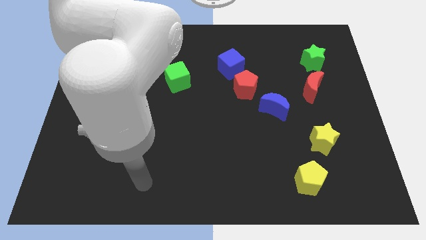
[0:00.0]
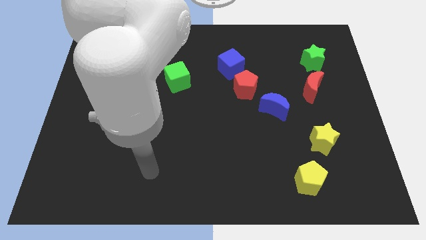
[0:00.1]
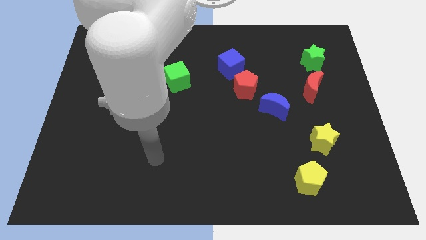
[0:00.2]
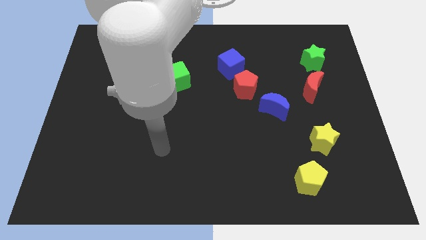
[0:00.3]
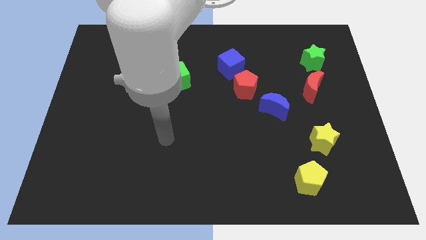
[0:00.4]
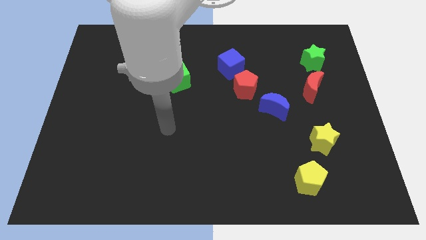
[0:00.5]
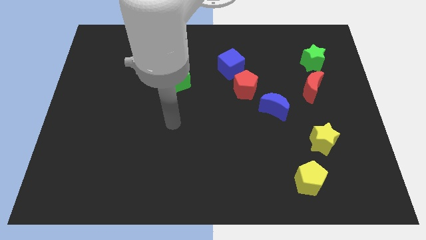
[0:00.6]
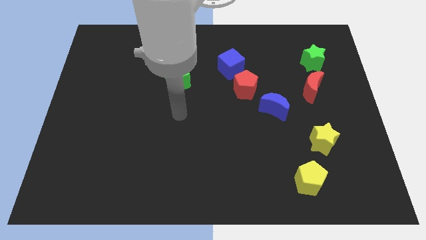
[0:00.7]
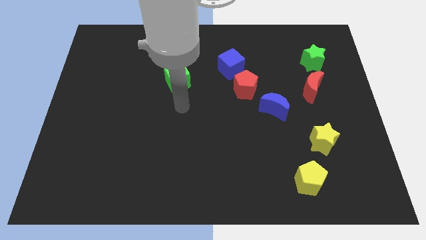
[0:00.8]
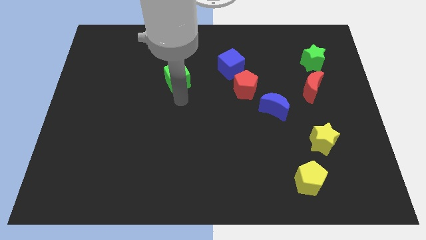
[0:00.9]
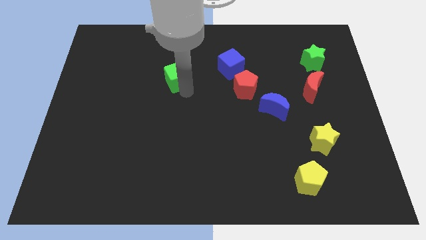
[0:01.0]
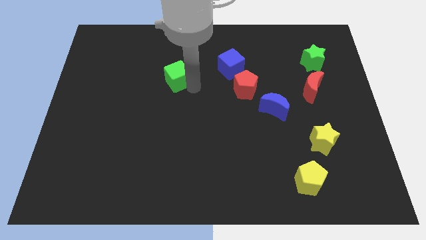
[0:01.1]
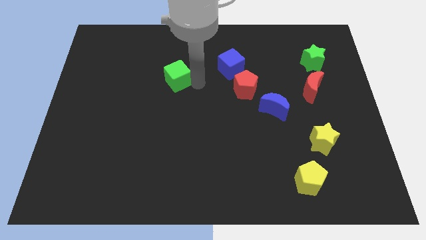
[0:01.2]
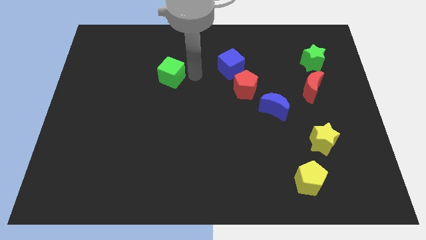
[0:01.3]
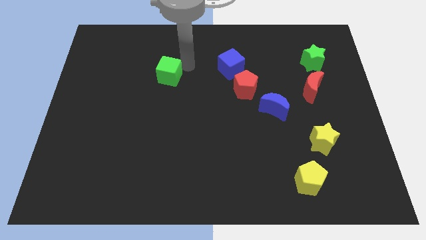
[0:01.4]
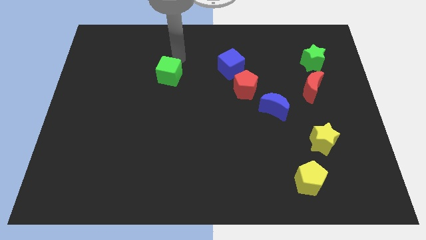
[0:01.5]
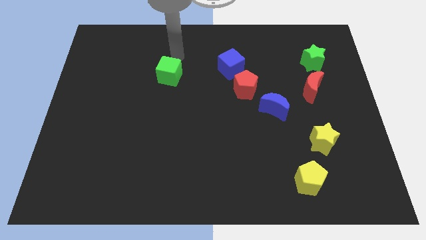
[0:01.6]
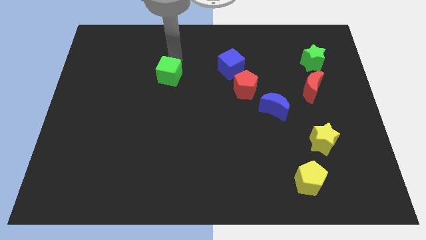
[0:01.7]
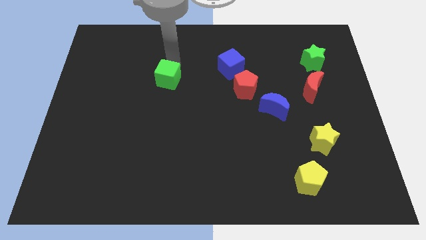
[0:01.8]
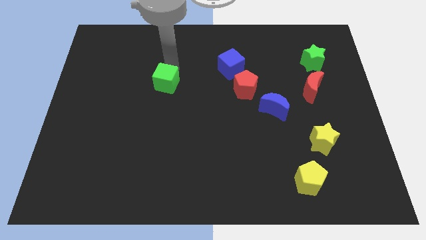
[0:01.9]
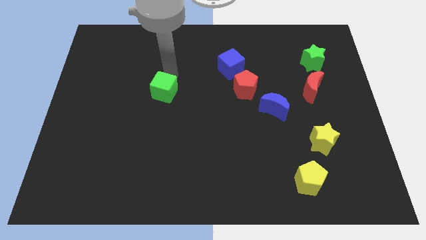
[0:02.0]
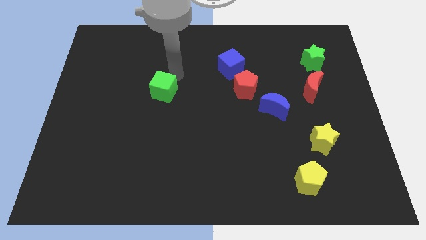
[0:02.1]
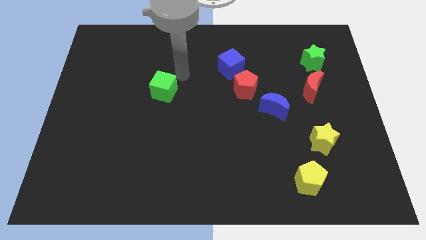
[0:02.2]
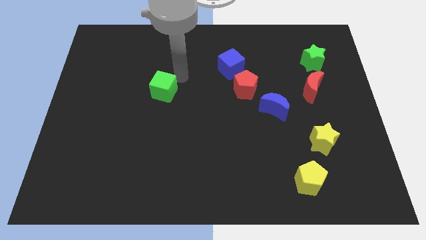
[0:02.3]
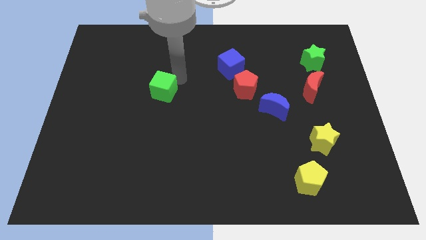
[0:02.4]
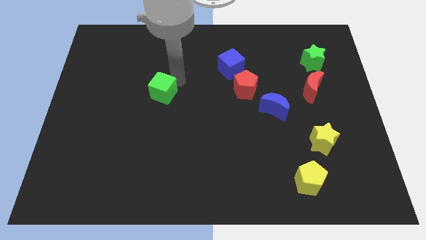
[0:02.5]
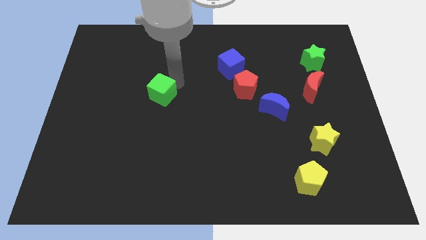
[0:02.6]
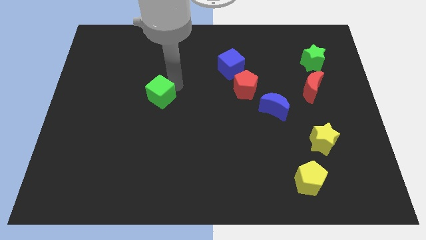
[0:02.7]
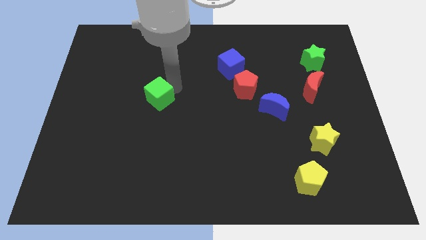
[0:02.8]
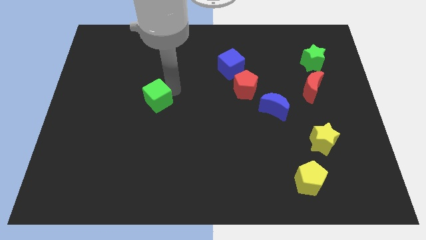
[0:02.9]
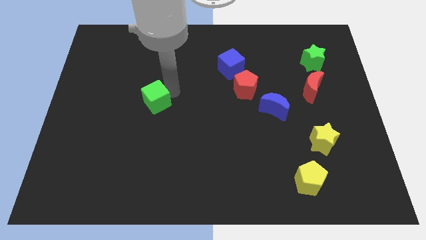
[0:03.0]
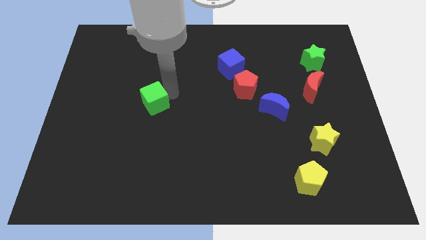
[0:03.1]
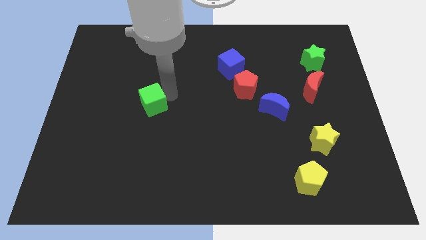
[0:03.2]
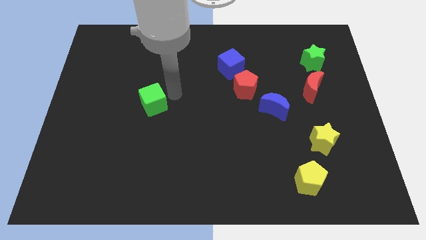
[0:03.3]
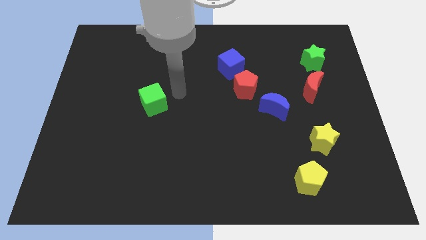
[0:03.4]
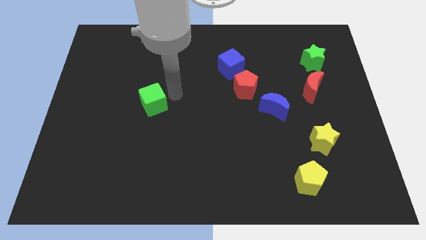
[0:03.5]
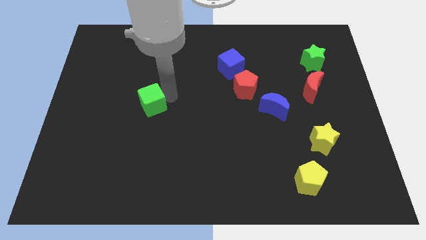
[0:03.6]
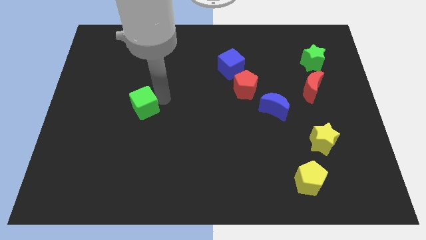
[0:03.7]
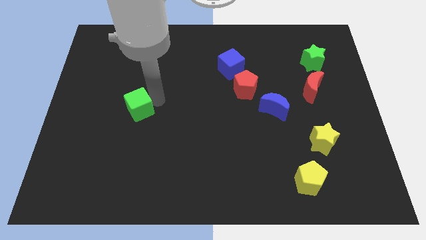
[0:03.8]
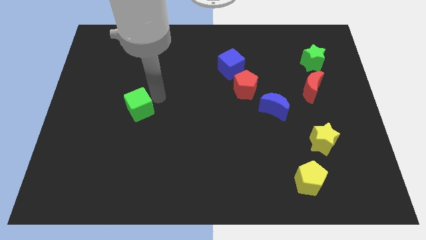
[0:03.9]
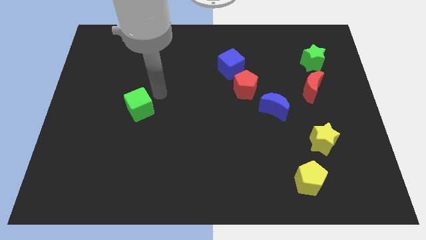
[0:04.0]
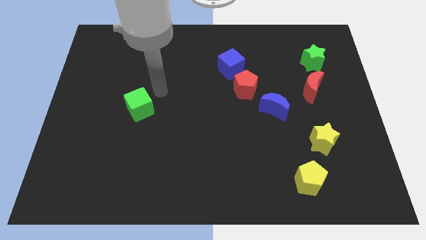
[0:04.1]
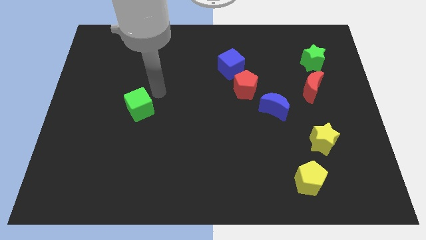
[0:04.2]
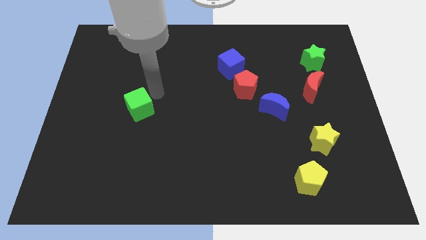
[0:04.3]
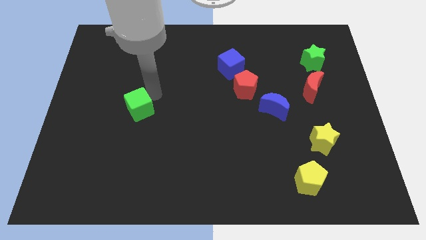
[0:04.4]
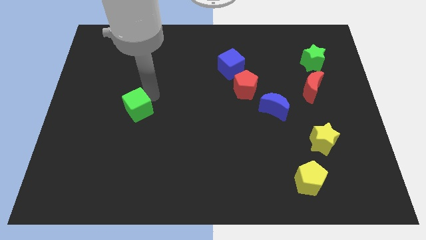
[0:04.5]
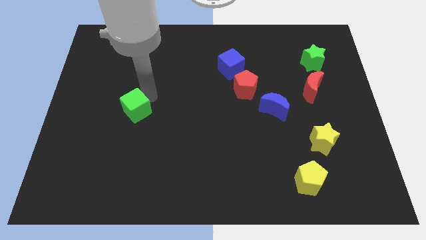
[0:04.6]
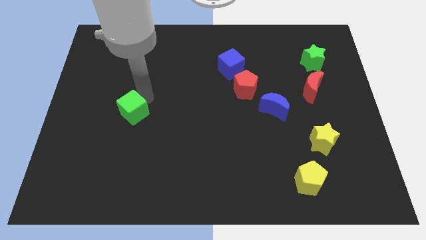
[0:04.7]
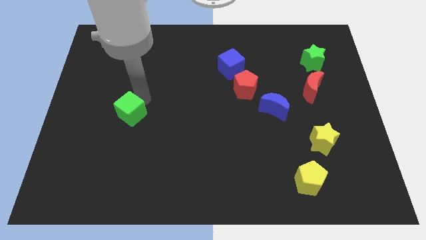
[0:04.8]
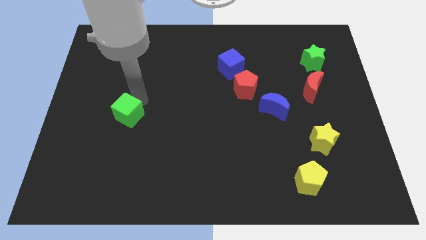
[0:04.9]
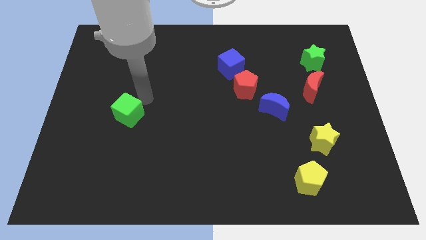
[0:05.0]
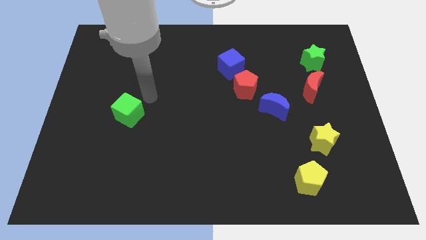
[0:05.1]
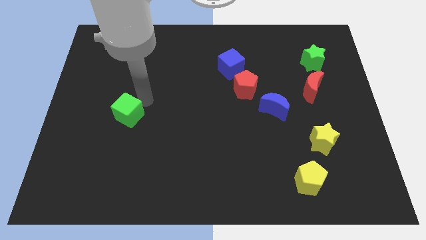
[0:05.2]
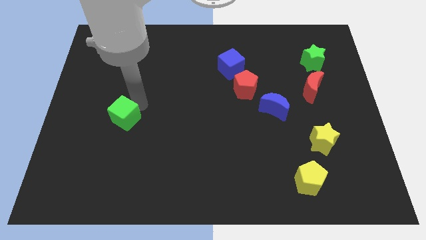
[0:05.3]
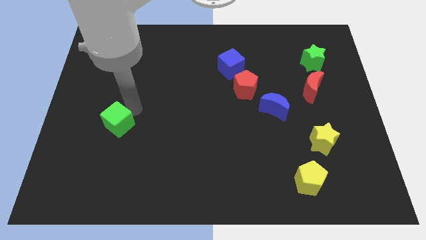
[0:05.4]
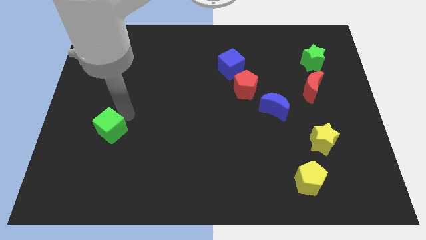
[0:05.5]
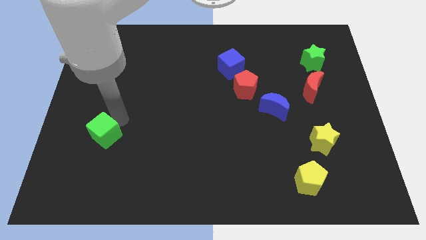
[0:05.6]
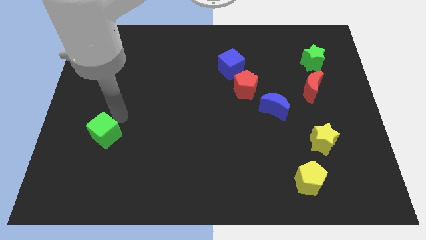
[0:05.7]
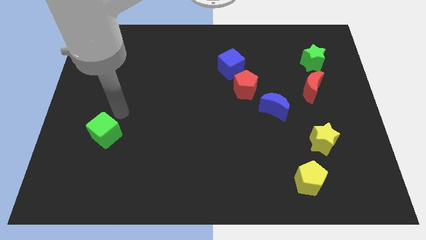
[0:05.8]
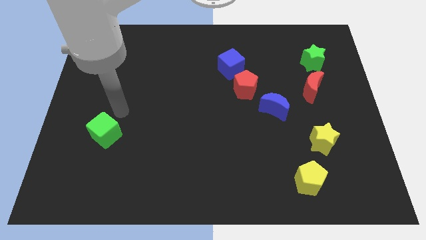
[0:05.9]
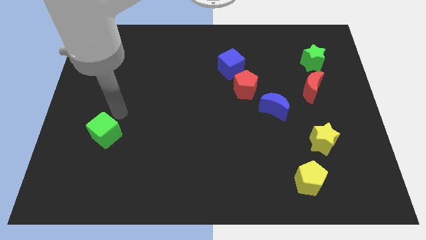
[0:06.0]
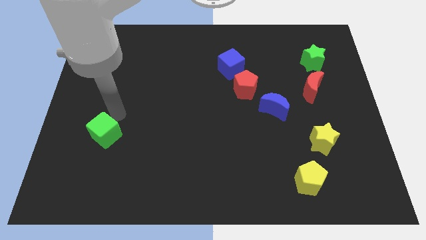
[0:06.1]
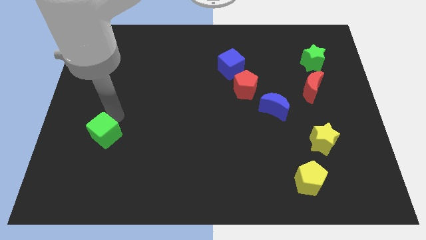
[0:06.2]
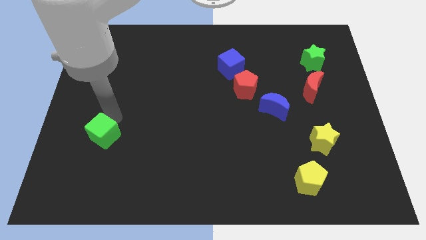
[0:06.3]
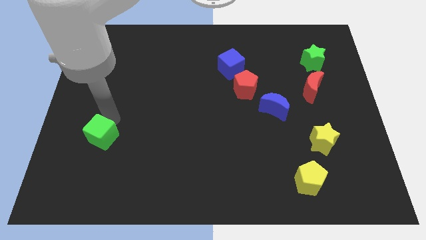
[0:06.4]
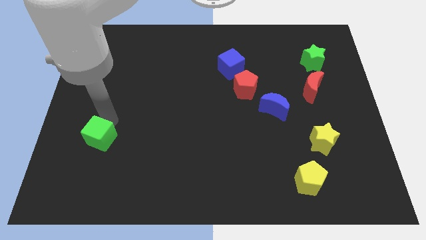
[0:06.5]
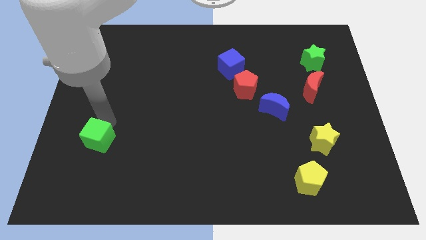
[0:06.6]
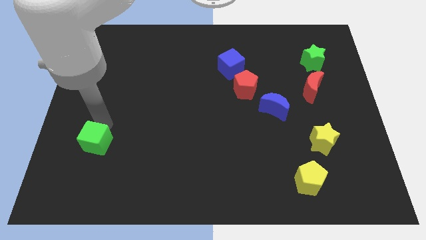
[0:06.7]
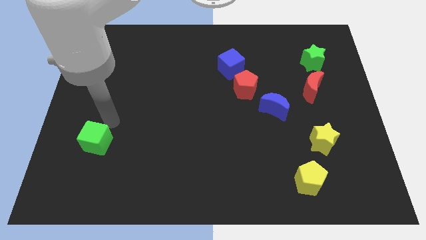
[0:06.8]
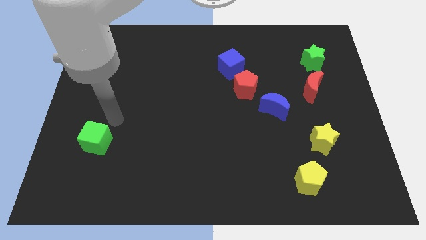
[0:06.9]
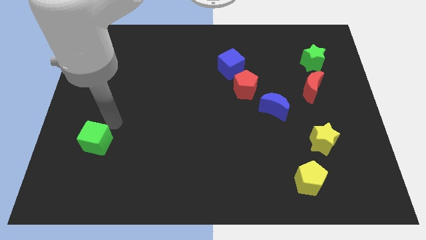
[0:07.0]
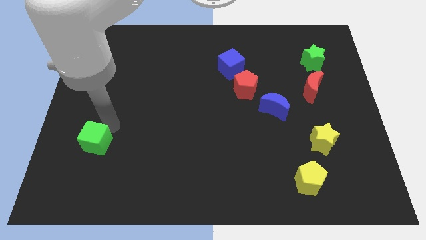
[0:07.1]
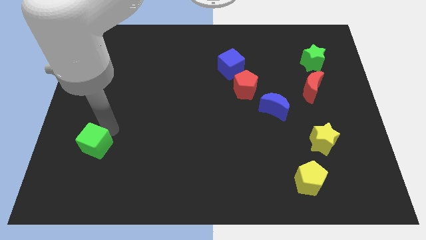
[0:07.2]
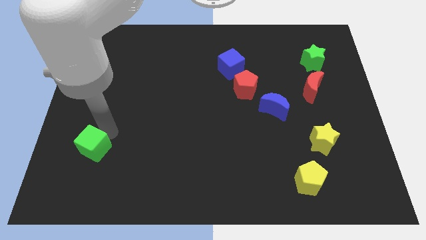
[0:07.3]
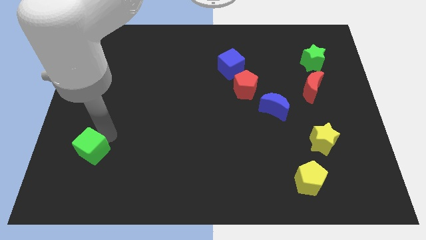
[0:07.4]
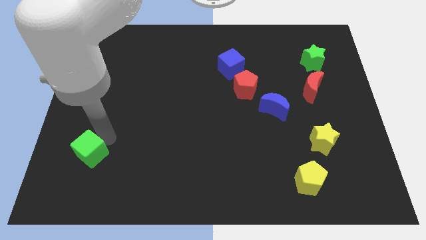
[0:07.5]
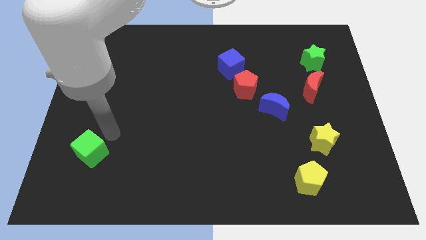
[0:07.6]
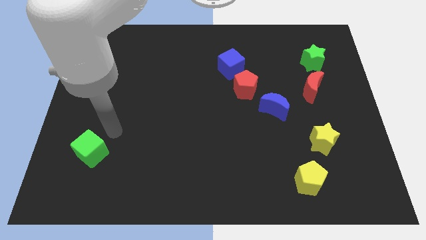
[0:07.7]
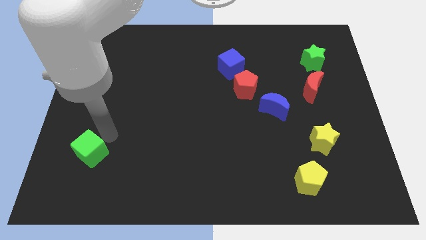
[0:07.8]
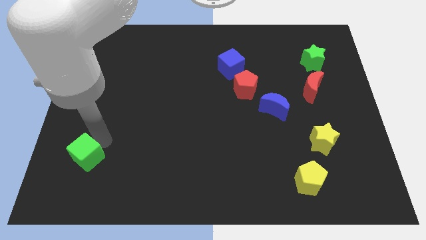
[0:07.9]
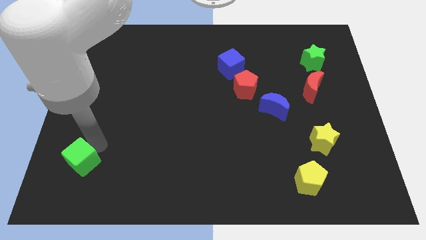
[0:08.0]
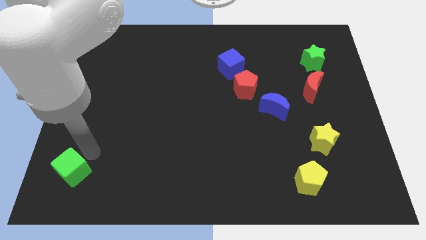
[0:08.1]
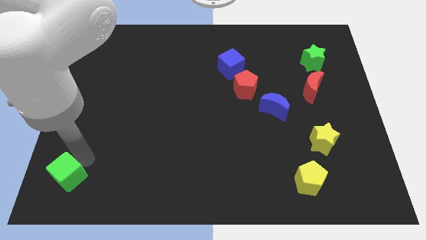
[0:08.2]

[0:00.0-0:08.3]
slide the green cube to the bottom left corner
